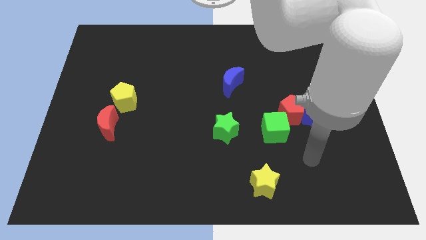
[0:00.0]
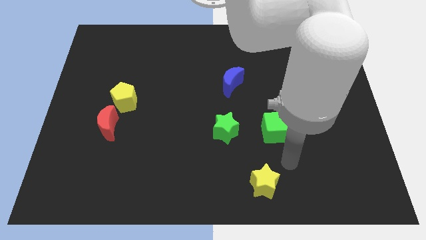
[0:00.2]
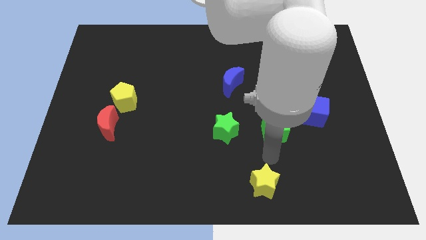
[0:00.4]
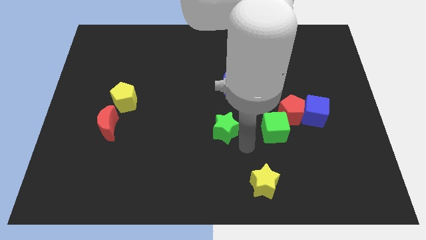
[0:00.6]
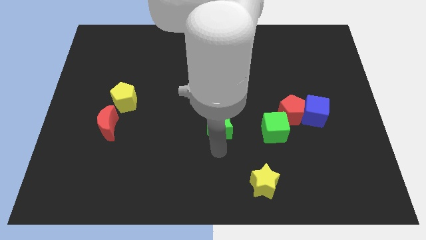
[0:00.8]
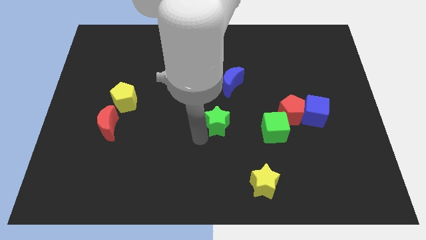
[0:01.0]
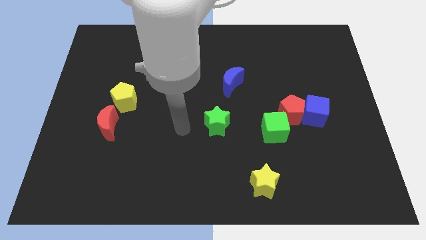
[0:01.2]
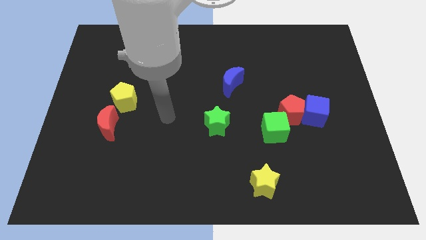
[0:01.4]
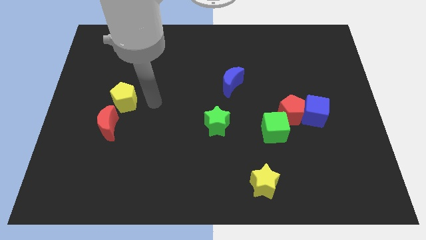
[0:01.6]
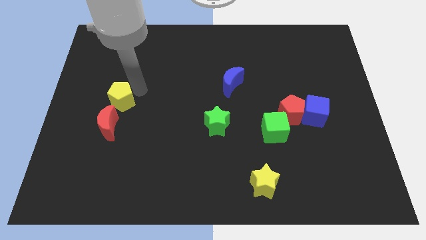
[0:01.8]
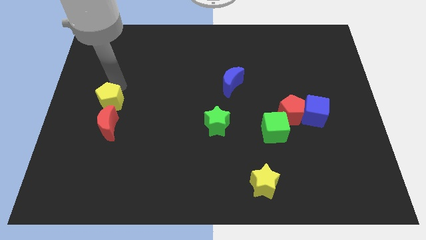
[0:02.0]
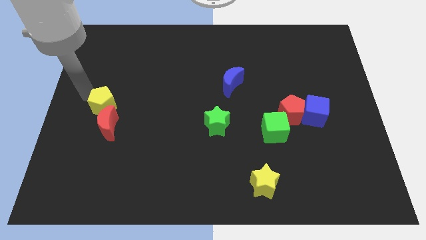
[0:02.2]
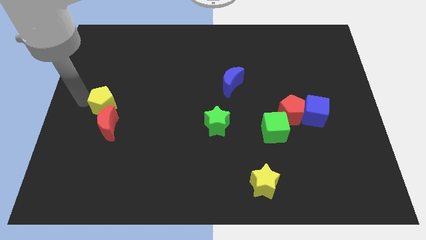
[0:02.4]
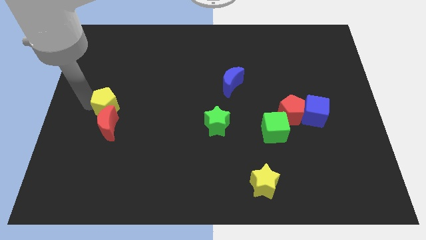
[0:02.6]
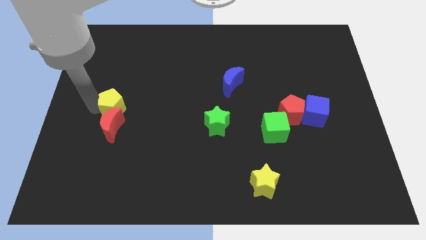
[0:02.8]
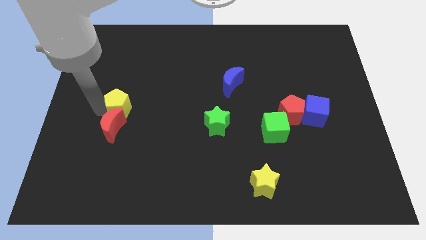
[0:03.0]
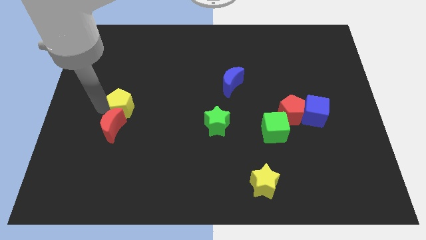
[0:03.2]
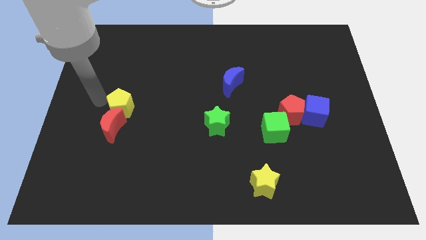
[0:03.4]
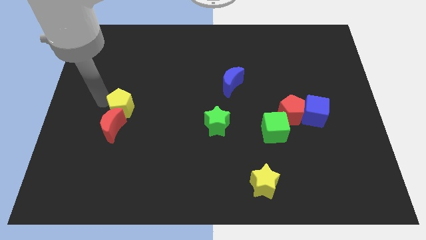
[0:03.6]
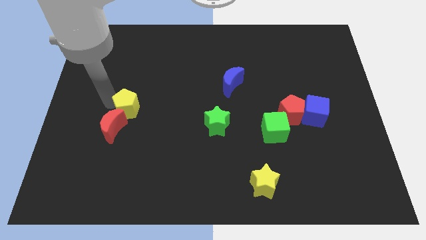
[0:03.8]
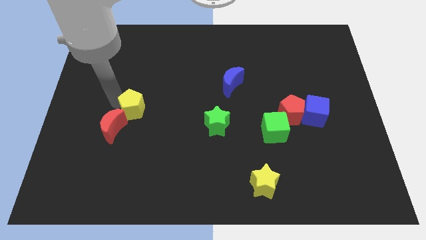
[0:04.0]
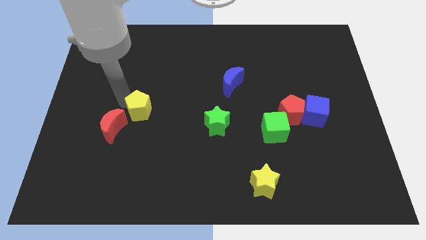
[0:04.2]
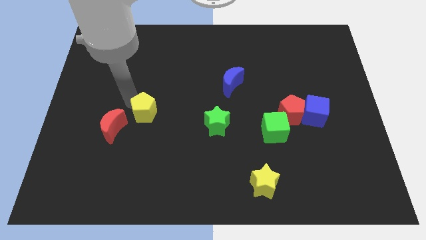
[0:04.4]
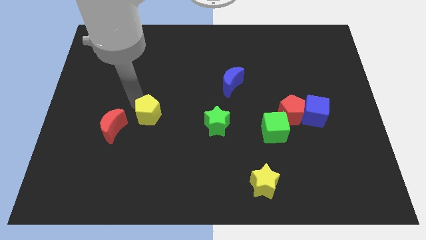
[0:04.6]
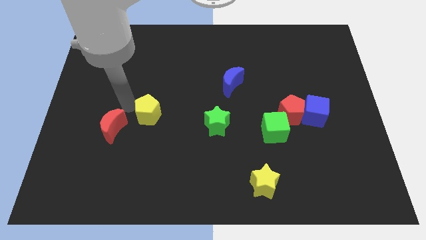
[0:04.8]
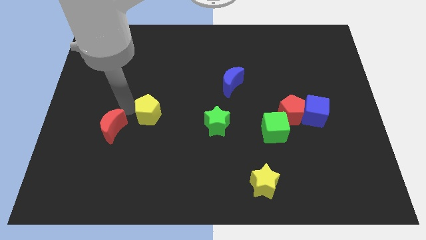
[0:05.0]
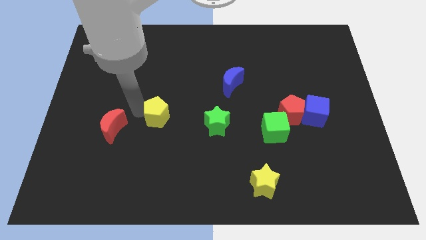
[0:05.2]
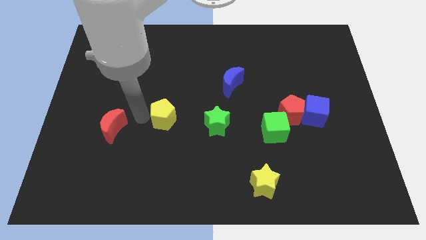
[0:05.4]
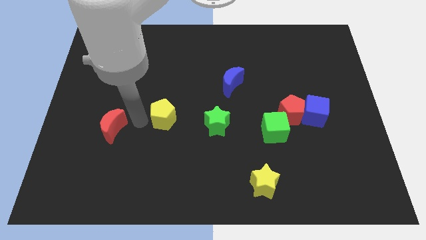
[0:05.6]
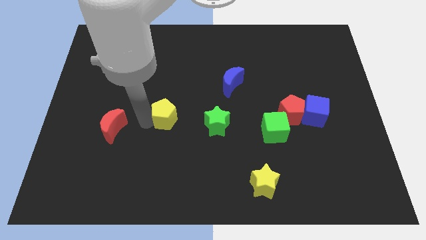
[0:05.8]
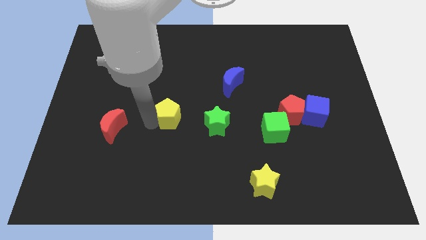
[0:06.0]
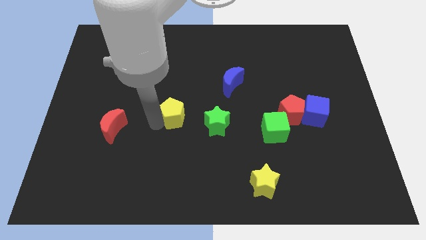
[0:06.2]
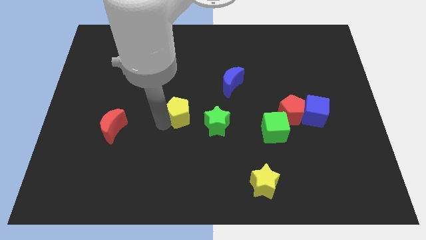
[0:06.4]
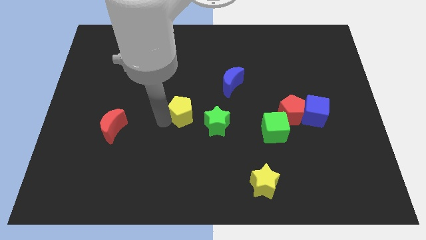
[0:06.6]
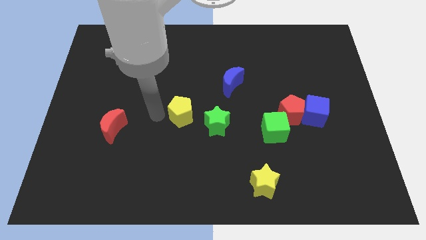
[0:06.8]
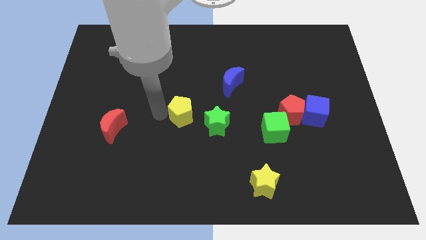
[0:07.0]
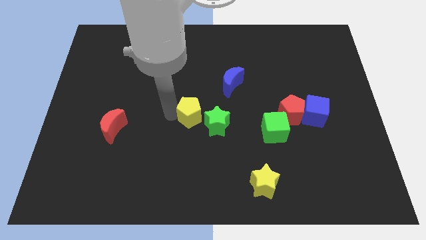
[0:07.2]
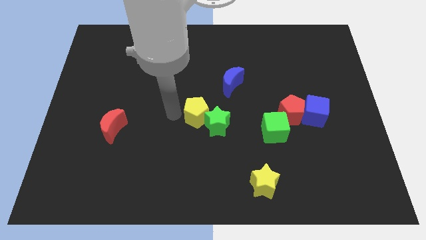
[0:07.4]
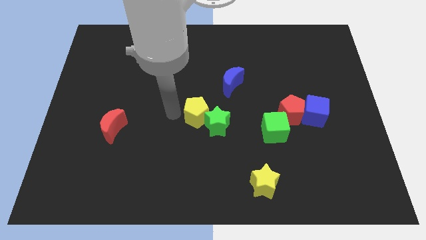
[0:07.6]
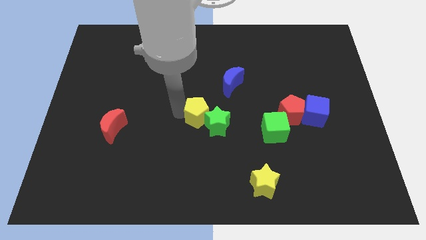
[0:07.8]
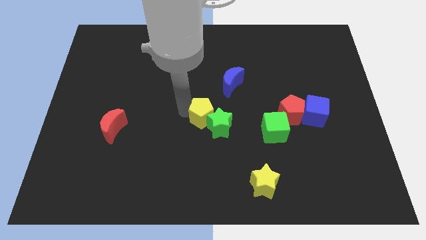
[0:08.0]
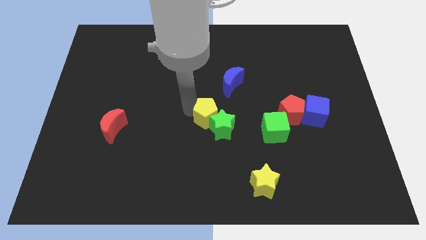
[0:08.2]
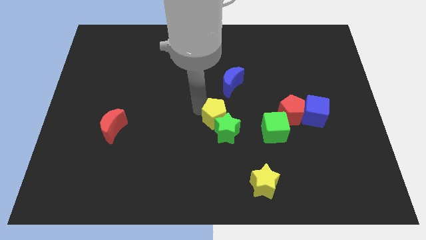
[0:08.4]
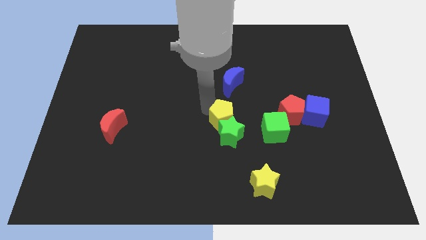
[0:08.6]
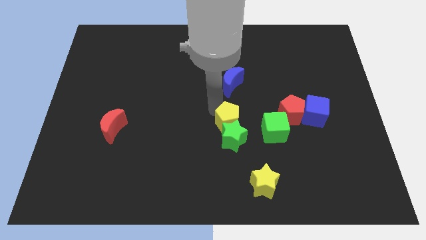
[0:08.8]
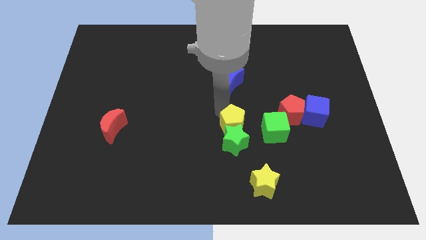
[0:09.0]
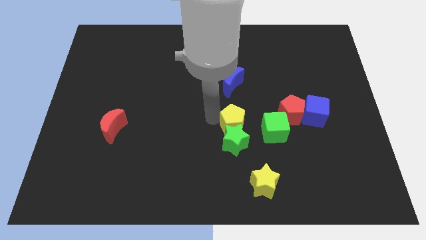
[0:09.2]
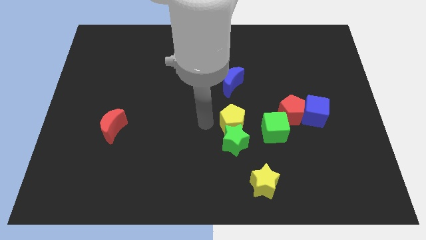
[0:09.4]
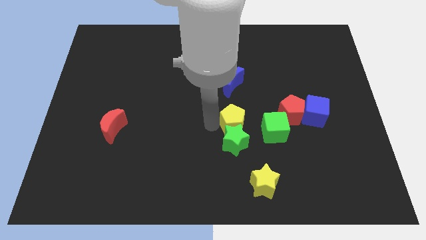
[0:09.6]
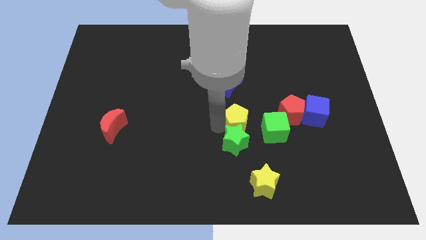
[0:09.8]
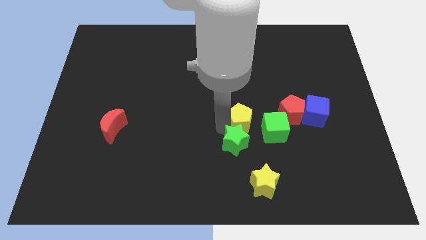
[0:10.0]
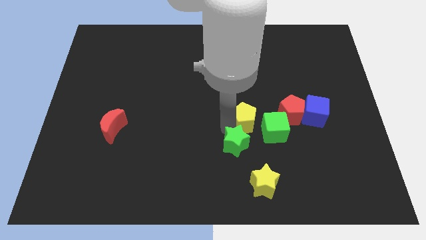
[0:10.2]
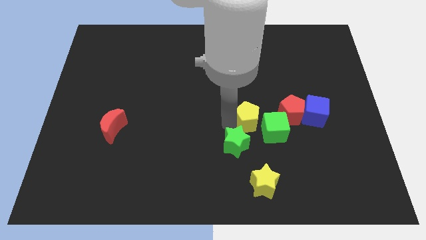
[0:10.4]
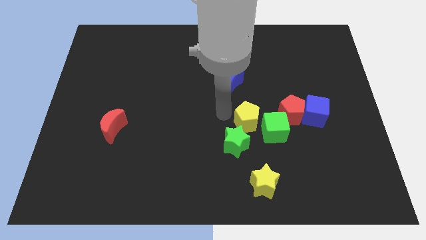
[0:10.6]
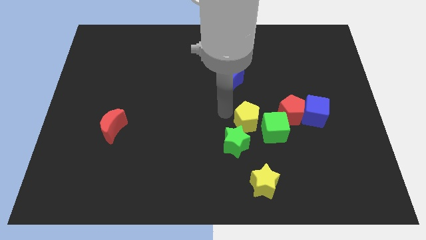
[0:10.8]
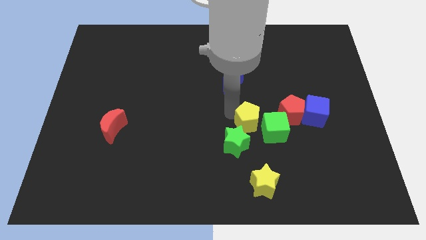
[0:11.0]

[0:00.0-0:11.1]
put the yellow pentagon to the green cube

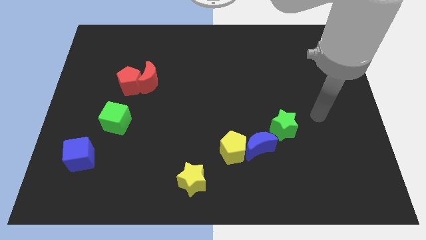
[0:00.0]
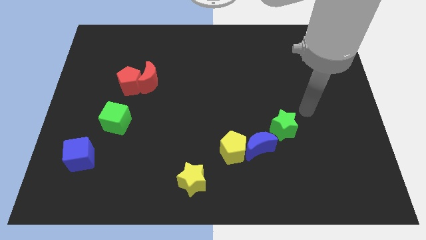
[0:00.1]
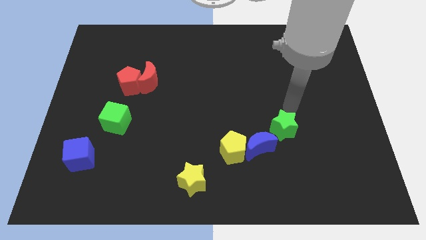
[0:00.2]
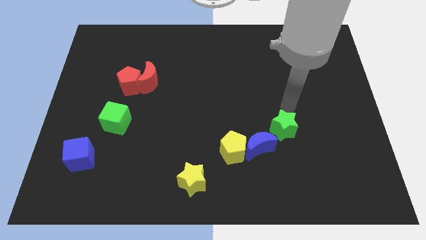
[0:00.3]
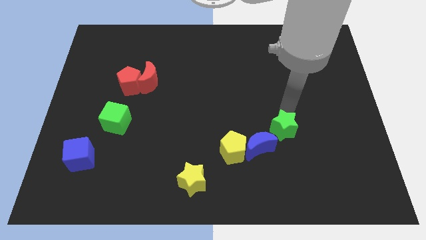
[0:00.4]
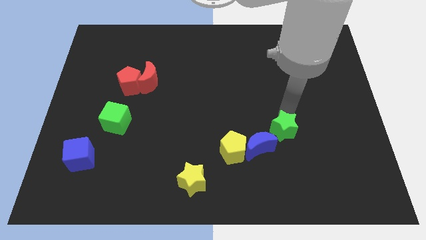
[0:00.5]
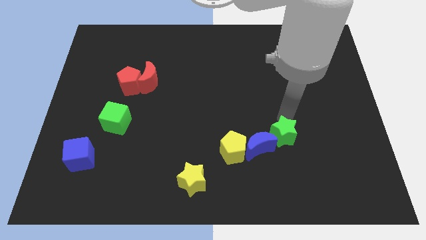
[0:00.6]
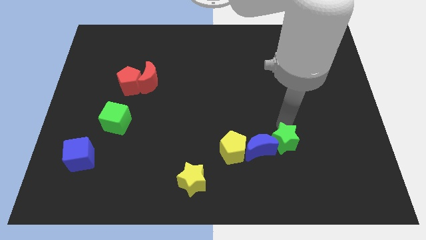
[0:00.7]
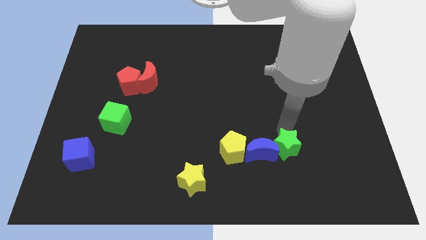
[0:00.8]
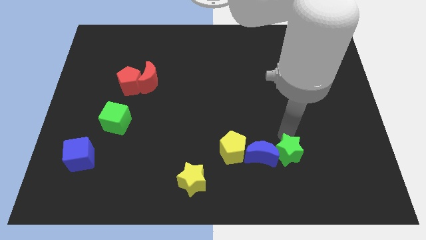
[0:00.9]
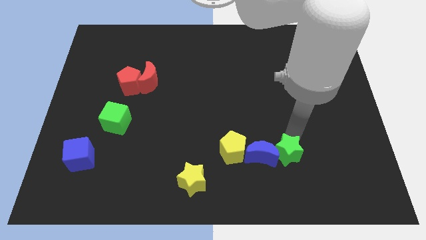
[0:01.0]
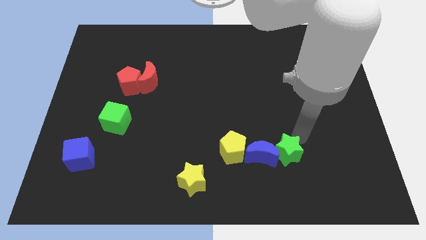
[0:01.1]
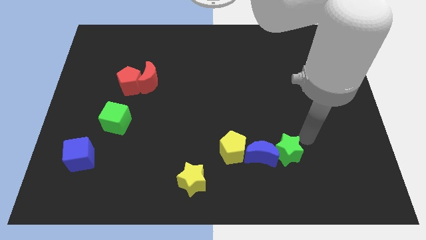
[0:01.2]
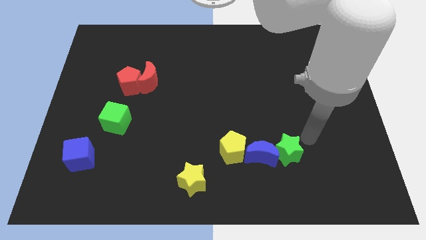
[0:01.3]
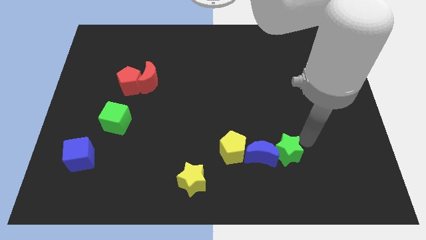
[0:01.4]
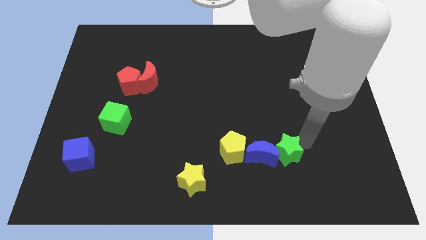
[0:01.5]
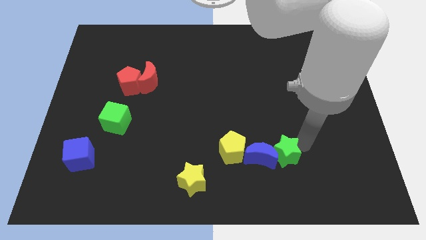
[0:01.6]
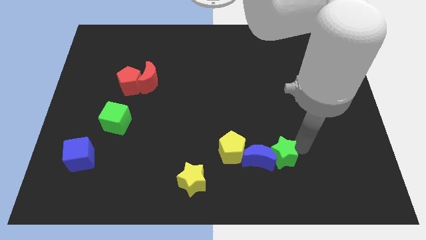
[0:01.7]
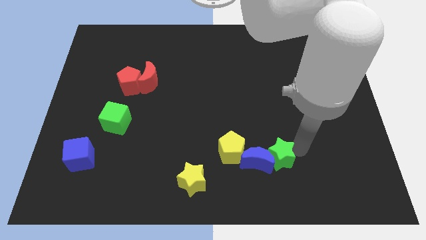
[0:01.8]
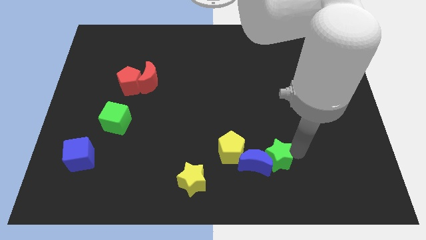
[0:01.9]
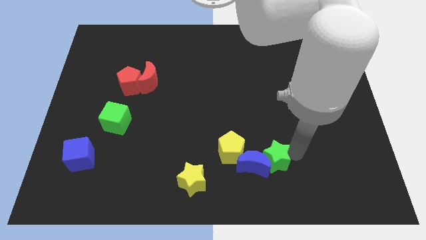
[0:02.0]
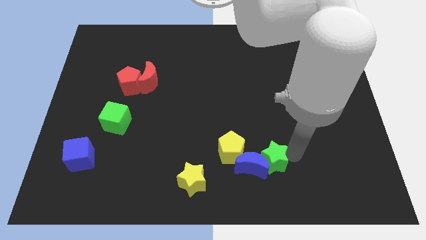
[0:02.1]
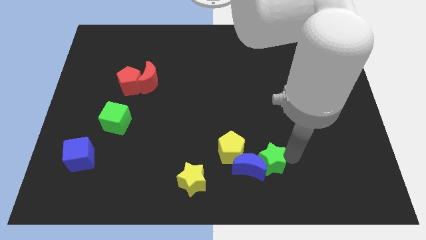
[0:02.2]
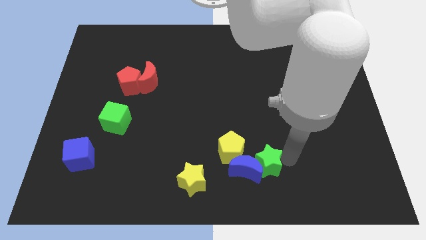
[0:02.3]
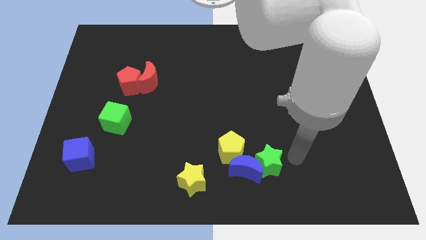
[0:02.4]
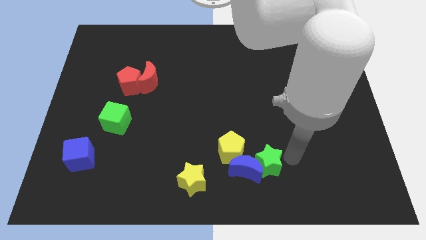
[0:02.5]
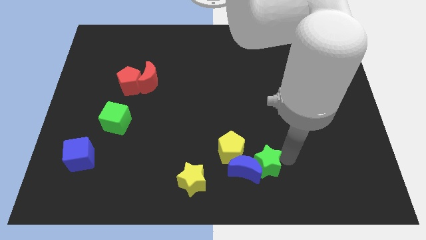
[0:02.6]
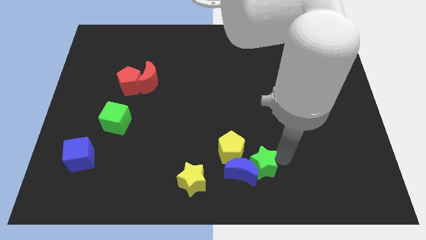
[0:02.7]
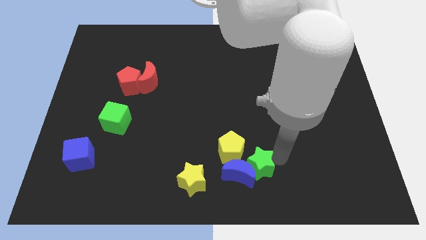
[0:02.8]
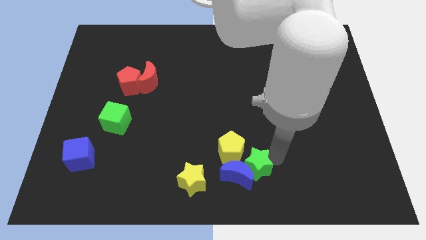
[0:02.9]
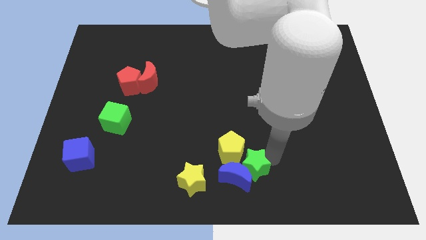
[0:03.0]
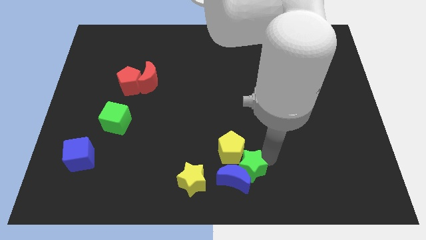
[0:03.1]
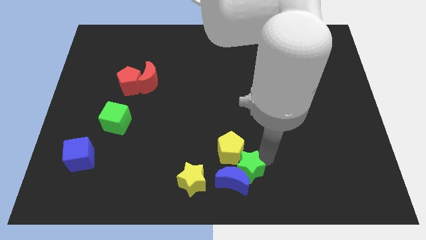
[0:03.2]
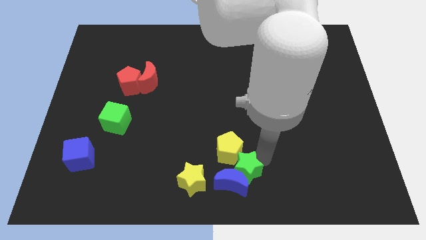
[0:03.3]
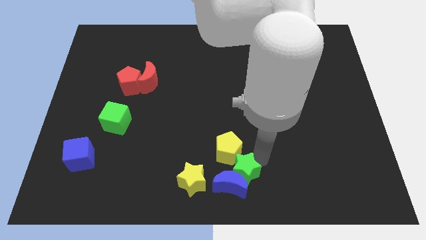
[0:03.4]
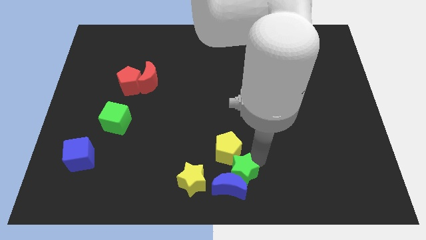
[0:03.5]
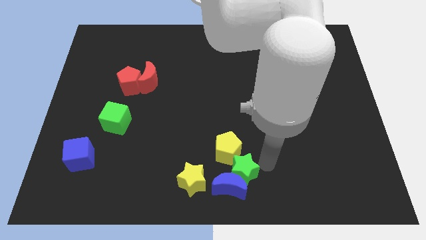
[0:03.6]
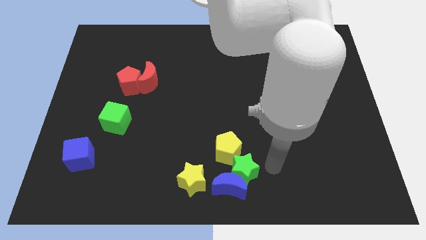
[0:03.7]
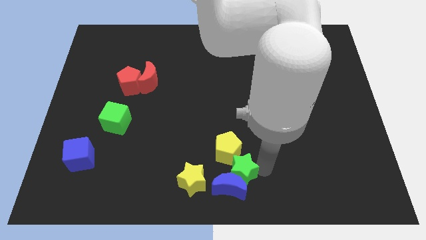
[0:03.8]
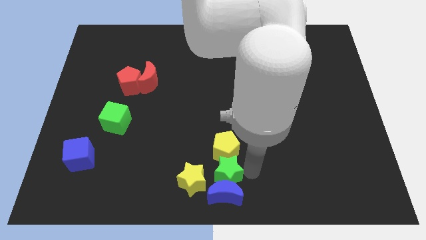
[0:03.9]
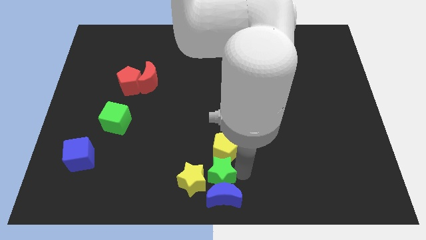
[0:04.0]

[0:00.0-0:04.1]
slide the green star close to the yellow star
